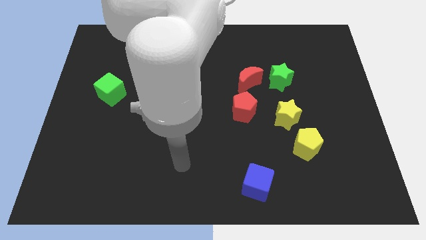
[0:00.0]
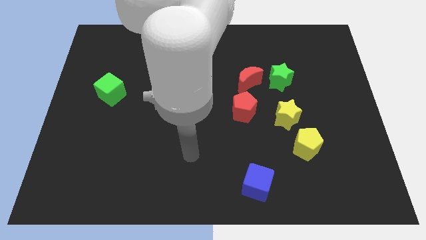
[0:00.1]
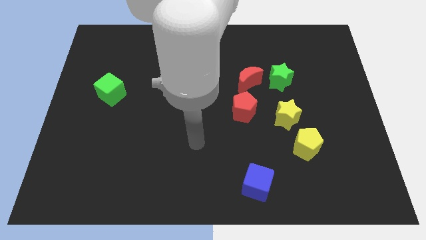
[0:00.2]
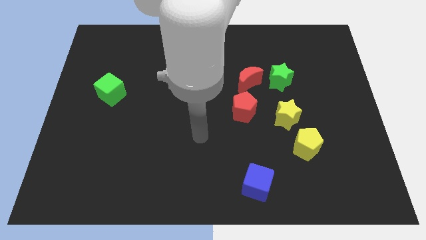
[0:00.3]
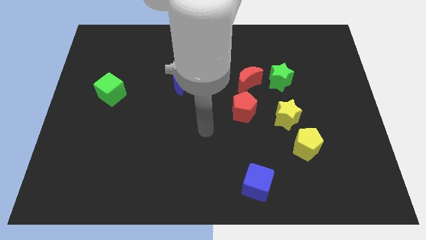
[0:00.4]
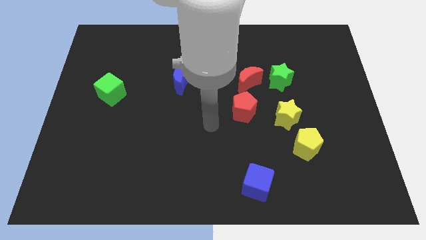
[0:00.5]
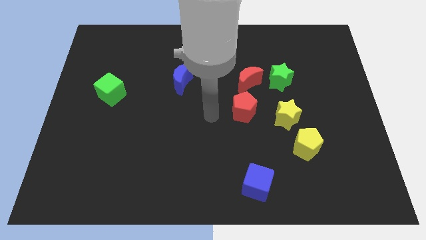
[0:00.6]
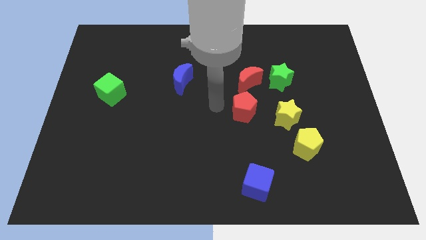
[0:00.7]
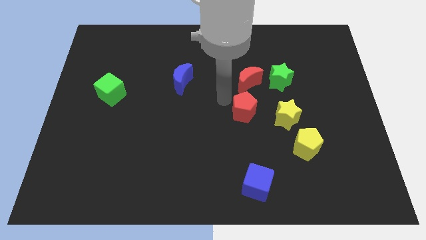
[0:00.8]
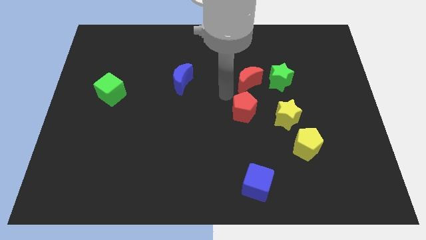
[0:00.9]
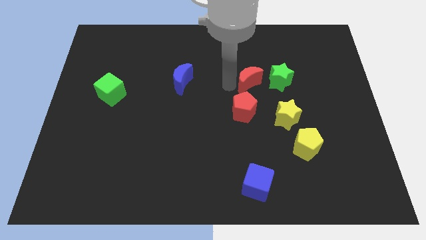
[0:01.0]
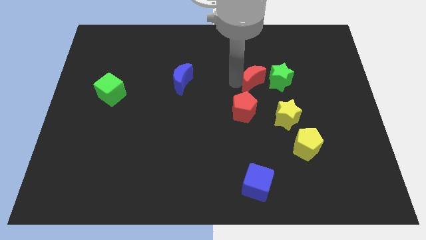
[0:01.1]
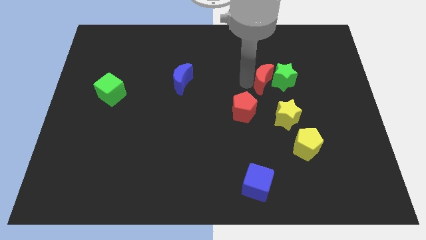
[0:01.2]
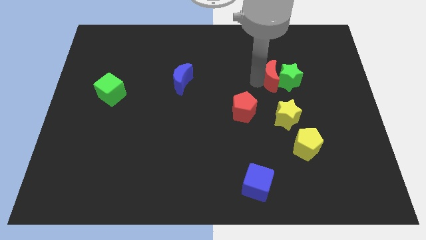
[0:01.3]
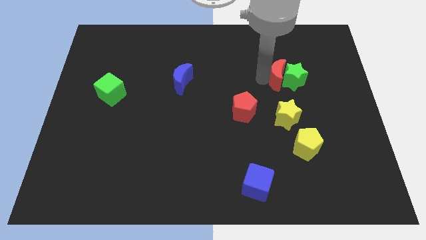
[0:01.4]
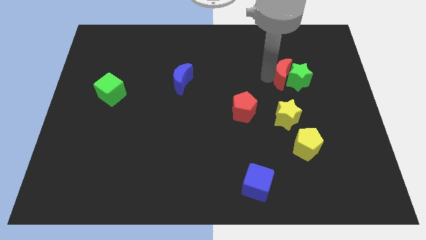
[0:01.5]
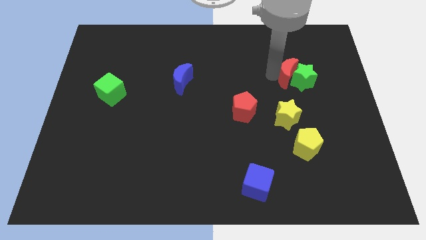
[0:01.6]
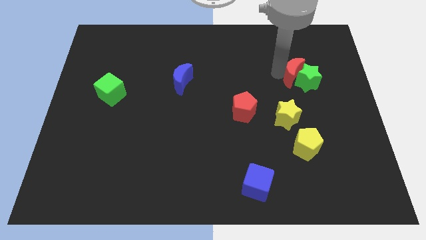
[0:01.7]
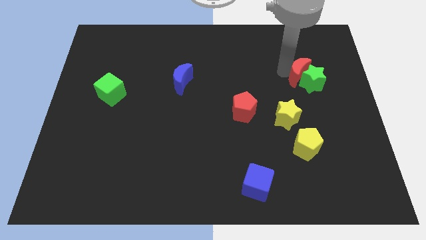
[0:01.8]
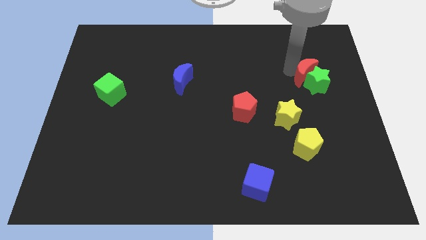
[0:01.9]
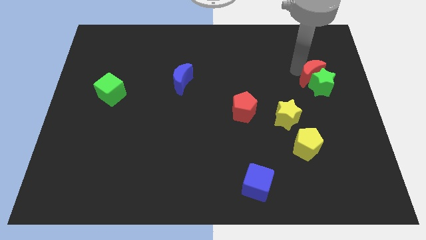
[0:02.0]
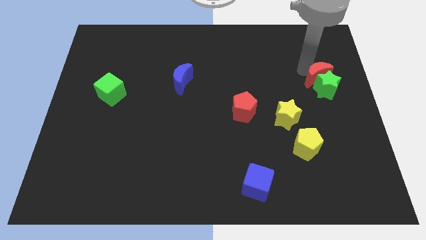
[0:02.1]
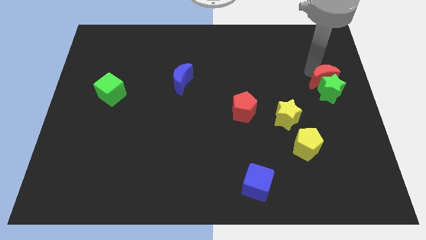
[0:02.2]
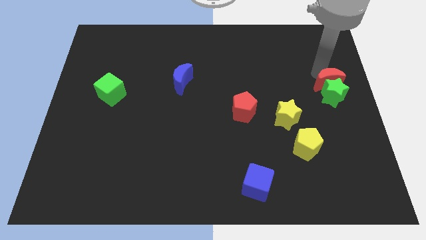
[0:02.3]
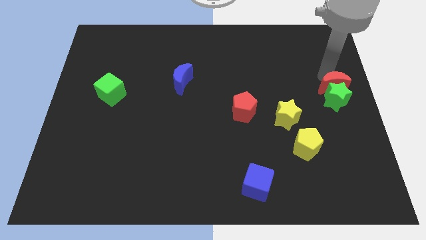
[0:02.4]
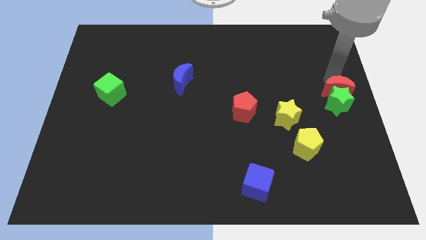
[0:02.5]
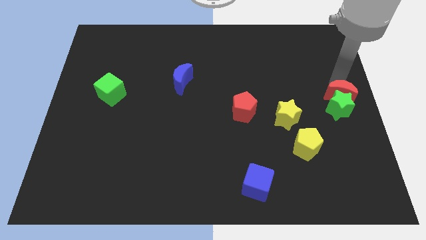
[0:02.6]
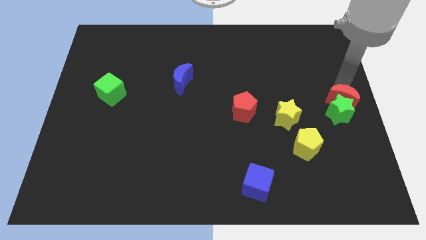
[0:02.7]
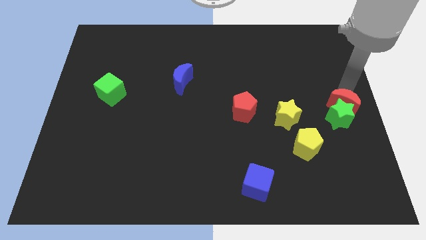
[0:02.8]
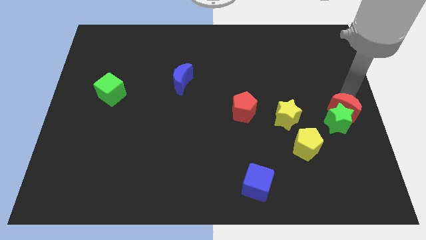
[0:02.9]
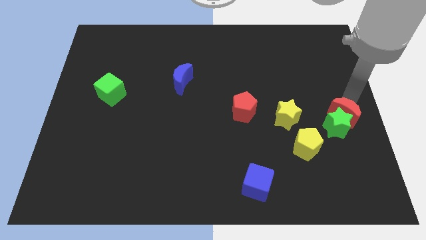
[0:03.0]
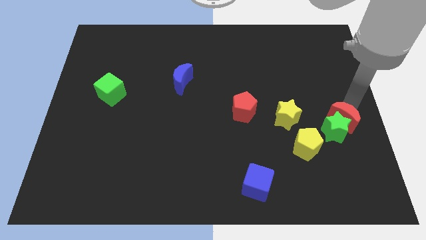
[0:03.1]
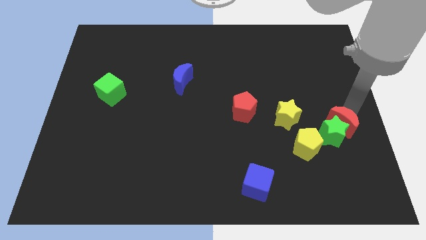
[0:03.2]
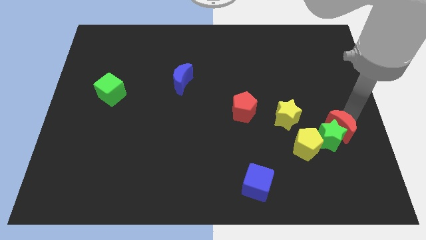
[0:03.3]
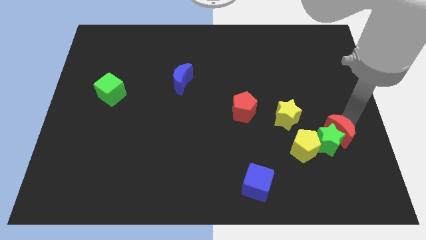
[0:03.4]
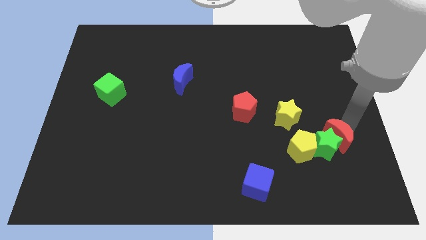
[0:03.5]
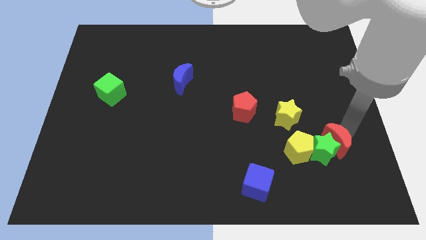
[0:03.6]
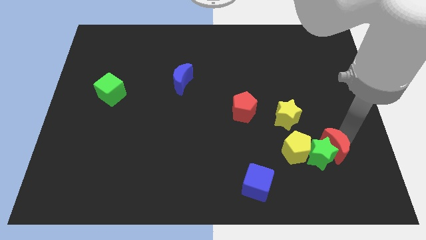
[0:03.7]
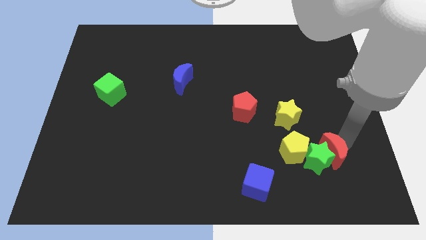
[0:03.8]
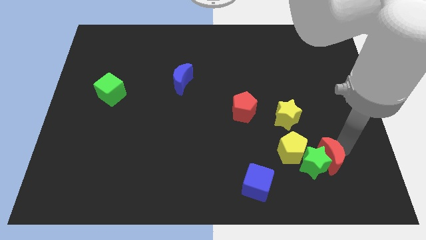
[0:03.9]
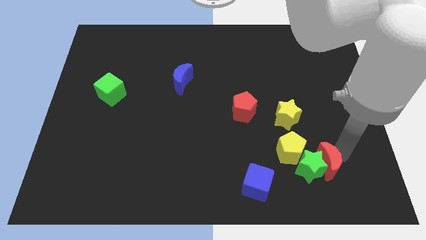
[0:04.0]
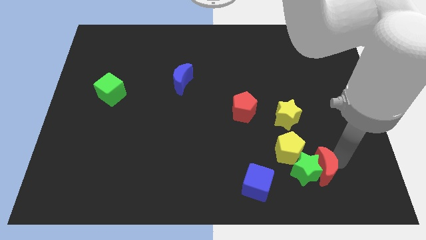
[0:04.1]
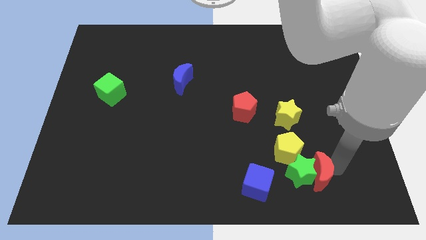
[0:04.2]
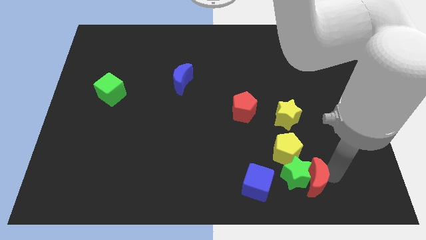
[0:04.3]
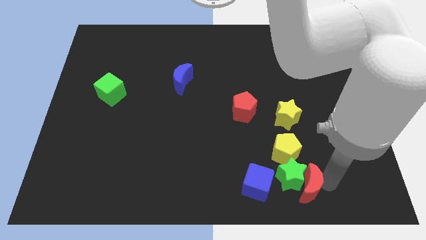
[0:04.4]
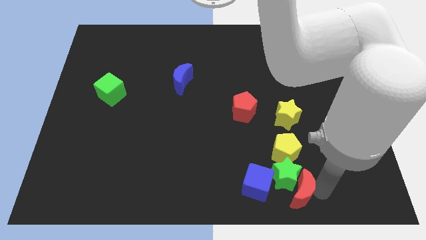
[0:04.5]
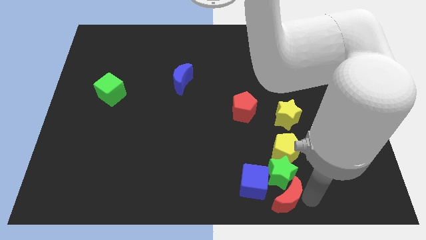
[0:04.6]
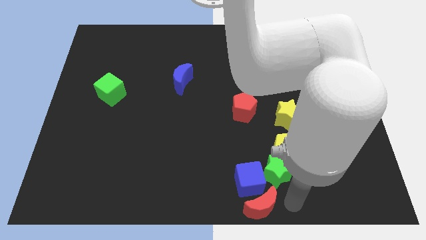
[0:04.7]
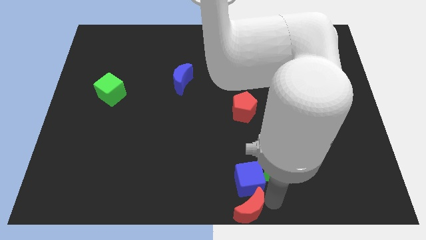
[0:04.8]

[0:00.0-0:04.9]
move the green star away from the red moon

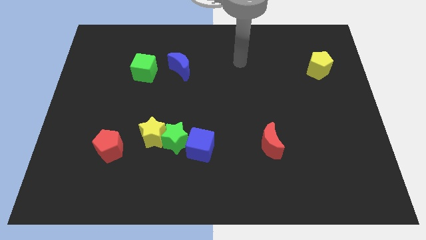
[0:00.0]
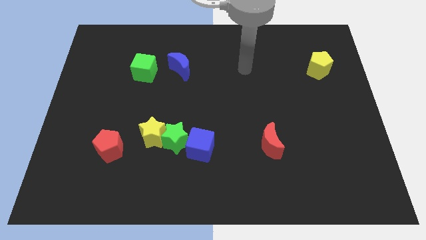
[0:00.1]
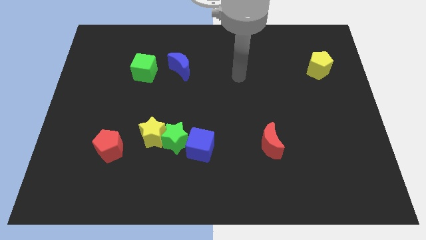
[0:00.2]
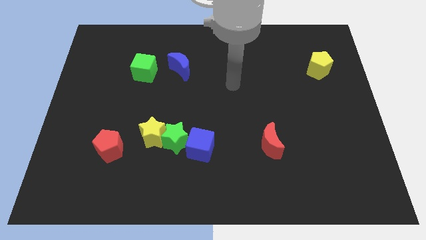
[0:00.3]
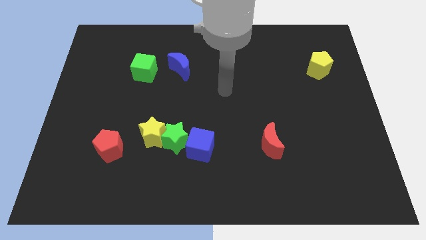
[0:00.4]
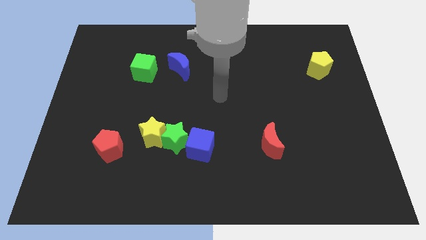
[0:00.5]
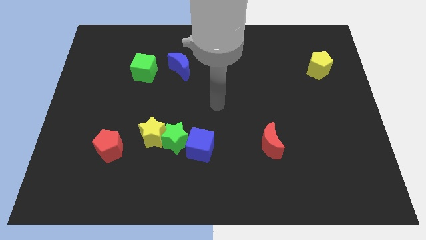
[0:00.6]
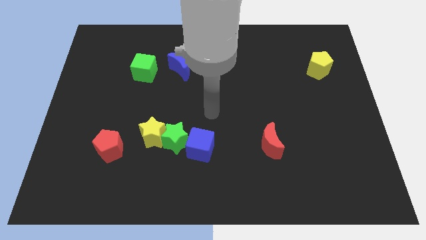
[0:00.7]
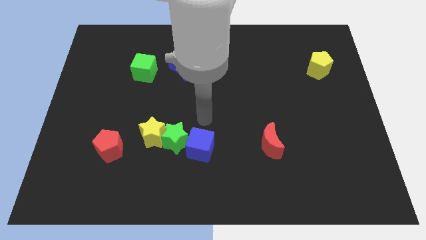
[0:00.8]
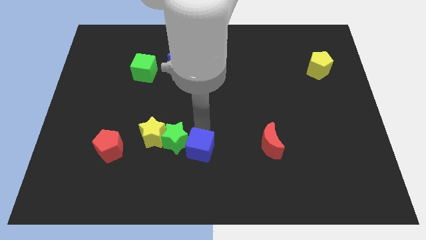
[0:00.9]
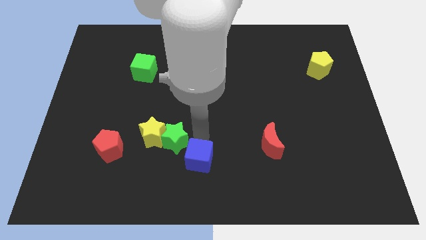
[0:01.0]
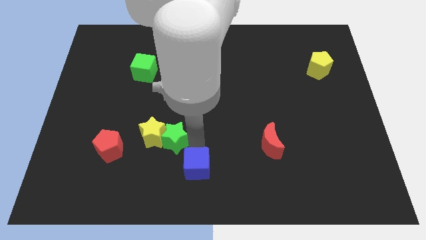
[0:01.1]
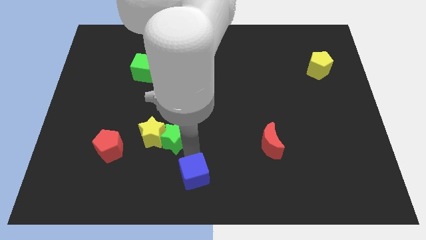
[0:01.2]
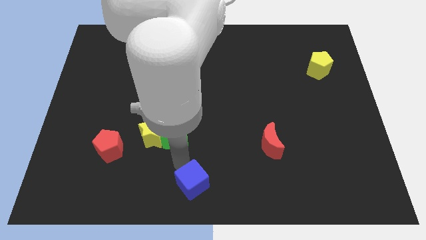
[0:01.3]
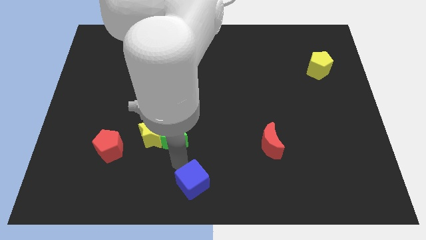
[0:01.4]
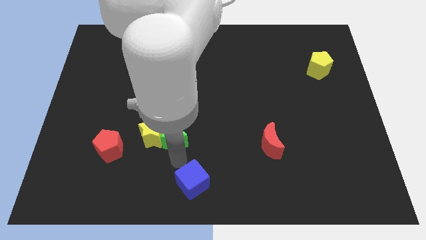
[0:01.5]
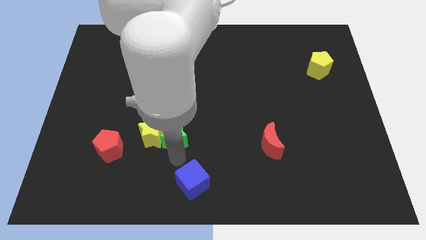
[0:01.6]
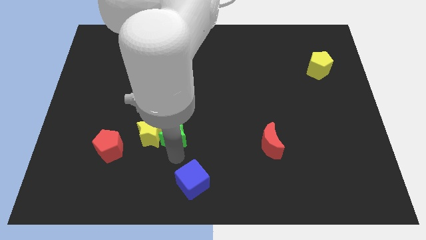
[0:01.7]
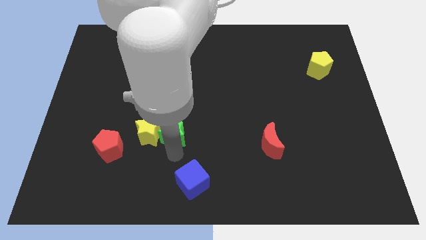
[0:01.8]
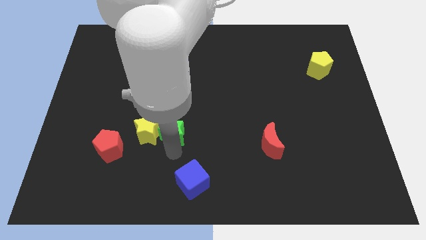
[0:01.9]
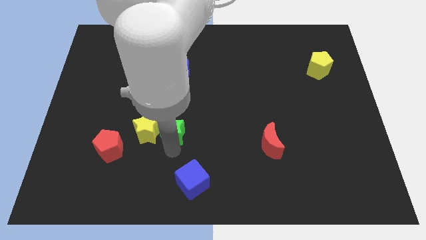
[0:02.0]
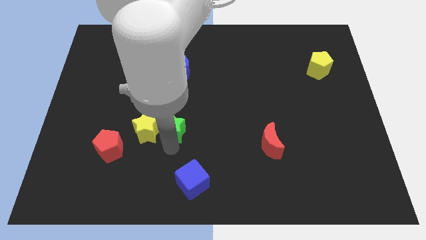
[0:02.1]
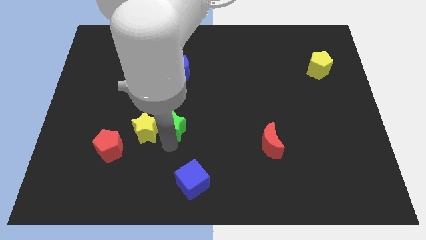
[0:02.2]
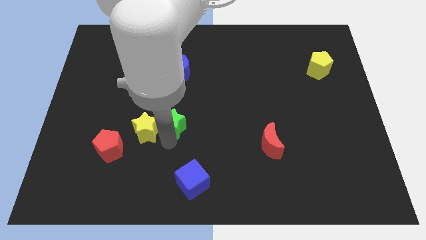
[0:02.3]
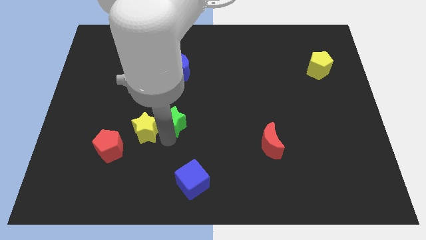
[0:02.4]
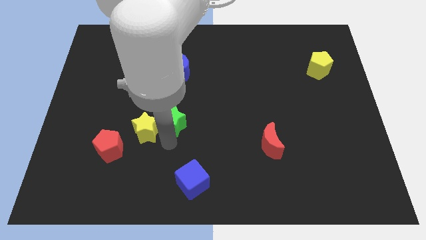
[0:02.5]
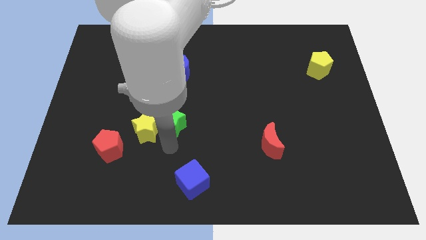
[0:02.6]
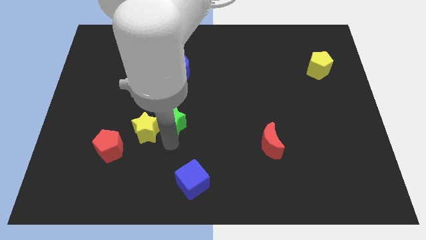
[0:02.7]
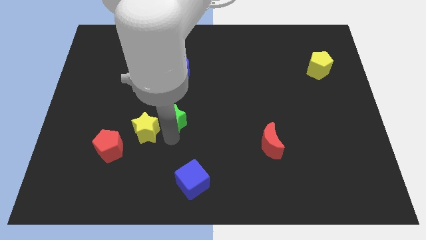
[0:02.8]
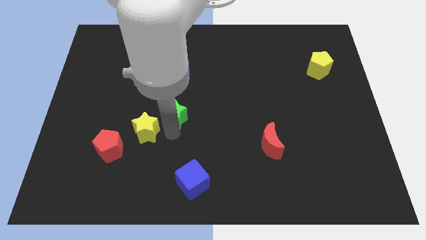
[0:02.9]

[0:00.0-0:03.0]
pull the green star apart from the yellow star and blue cube

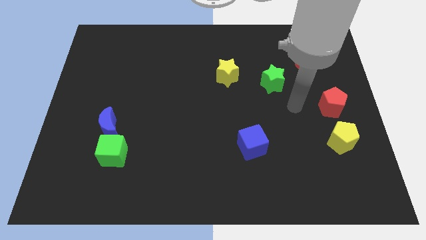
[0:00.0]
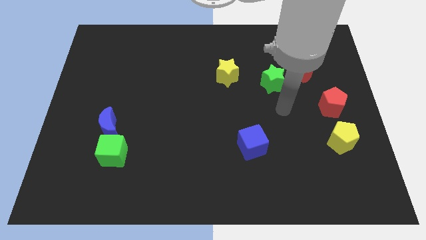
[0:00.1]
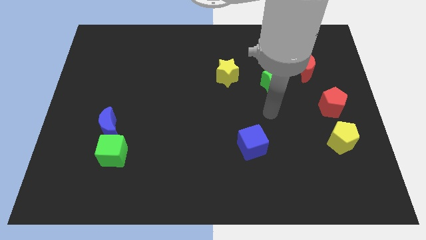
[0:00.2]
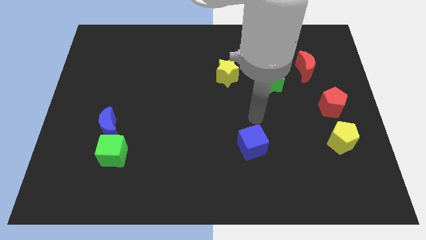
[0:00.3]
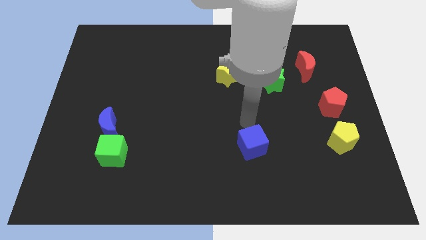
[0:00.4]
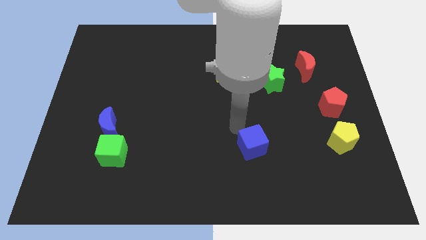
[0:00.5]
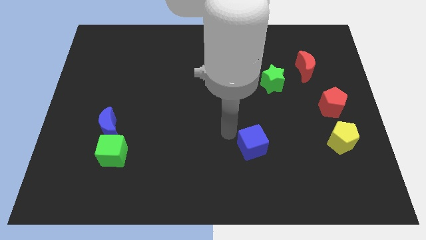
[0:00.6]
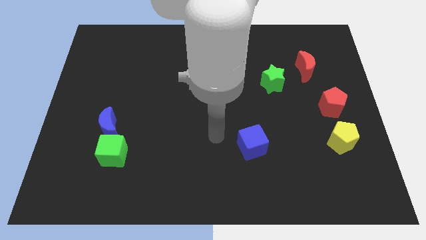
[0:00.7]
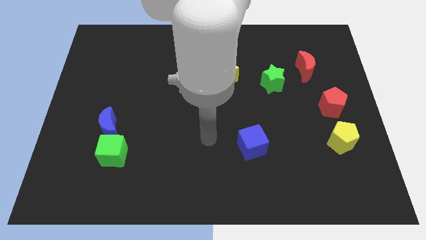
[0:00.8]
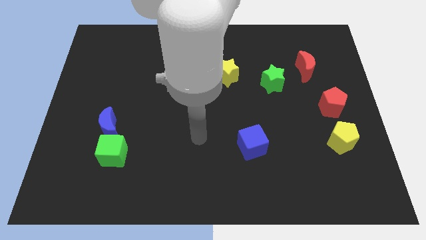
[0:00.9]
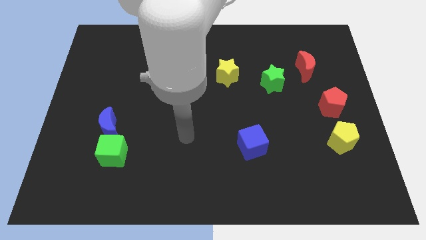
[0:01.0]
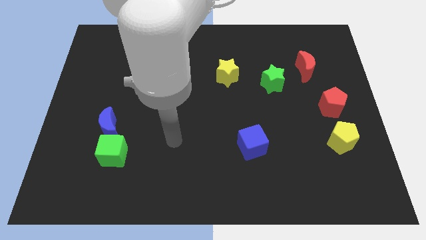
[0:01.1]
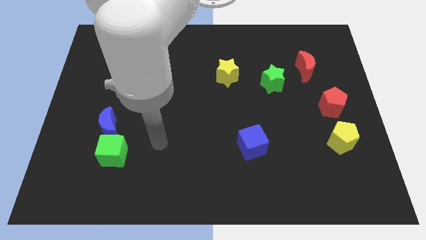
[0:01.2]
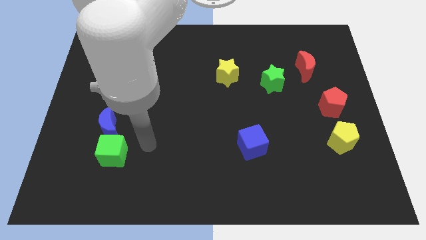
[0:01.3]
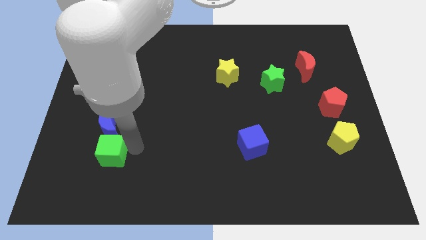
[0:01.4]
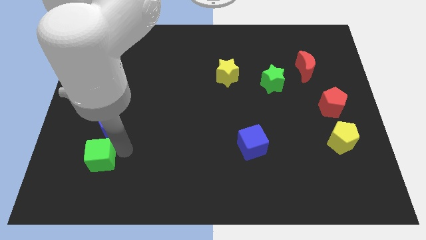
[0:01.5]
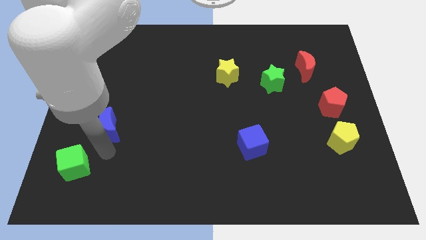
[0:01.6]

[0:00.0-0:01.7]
pull the blue moon apart from the green cube
